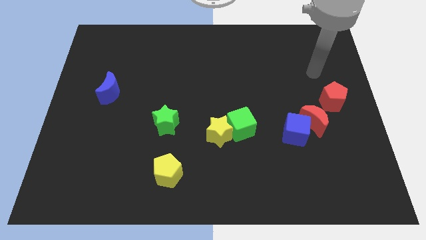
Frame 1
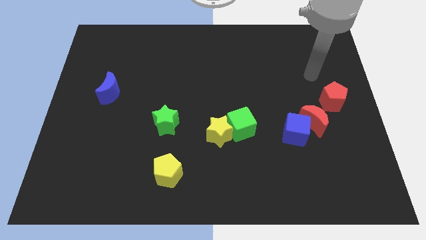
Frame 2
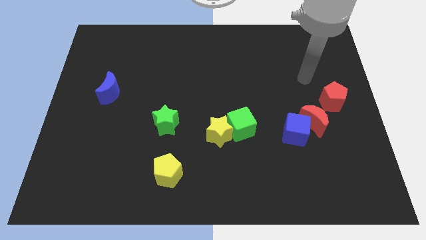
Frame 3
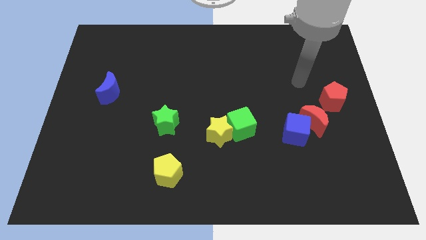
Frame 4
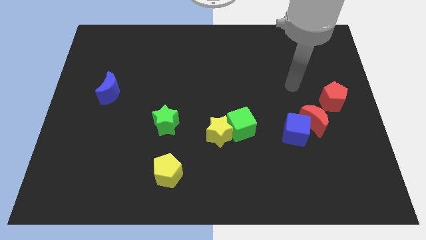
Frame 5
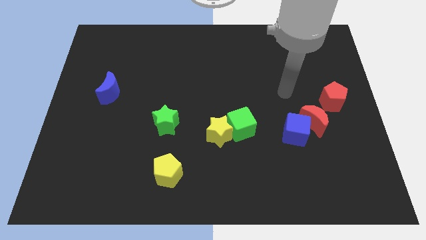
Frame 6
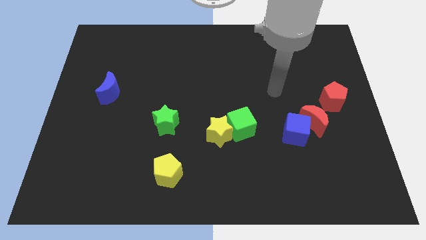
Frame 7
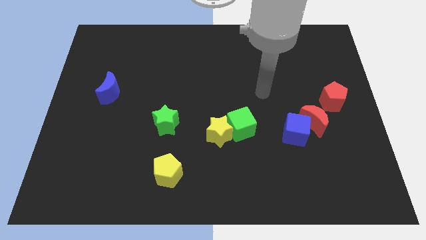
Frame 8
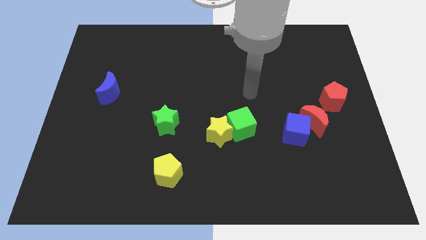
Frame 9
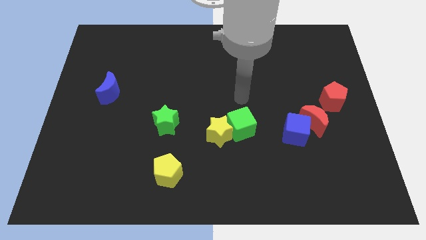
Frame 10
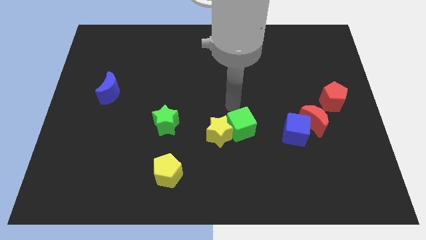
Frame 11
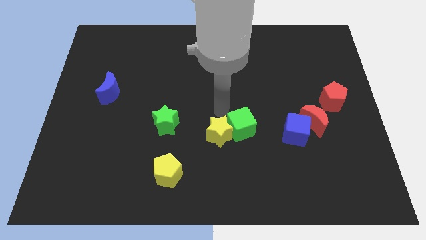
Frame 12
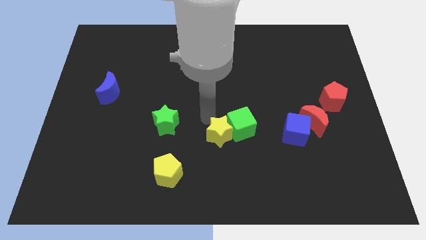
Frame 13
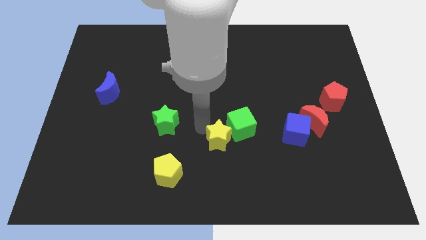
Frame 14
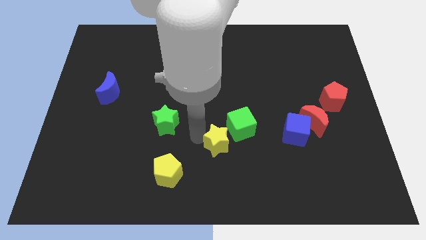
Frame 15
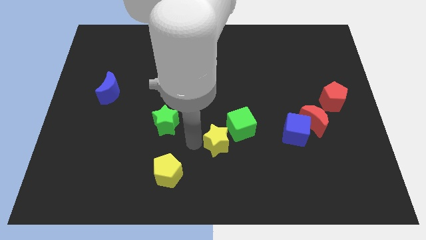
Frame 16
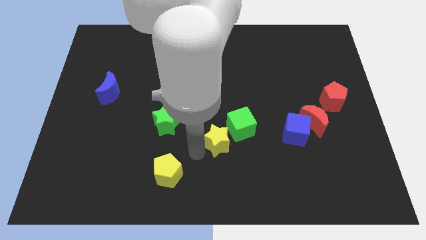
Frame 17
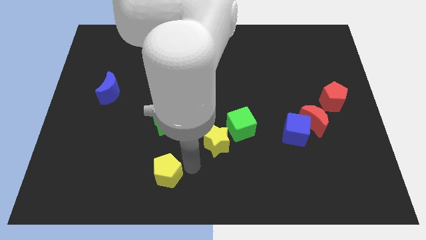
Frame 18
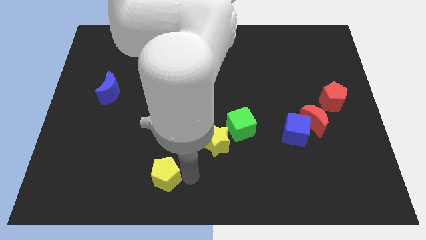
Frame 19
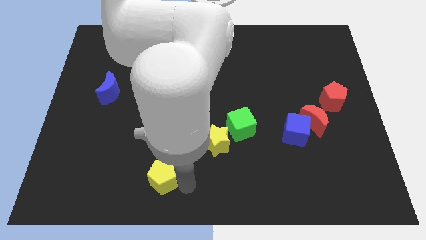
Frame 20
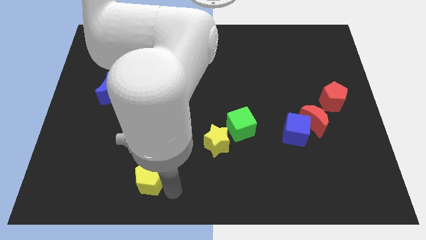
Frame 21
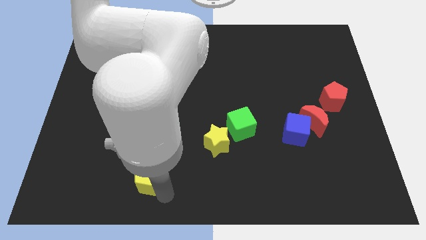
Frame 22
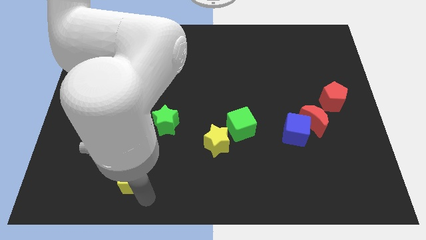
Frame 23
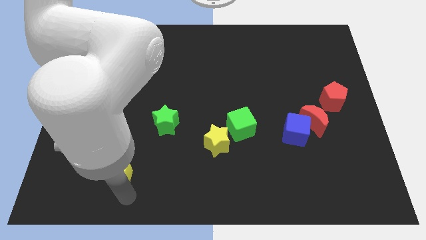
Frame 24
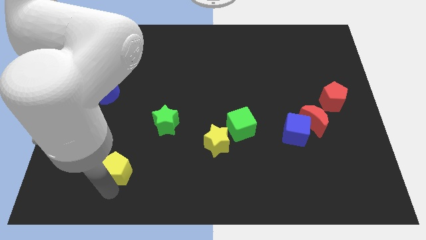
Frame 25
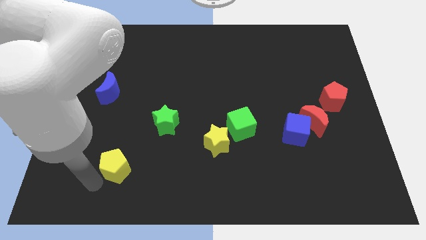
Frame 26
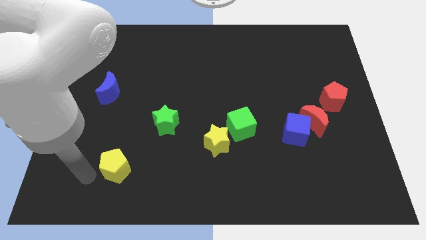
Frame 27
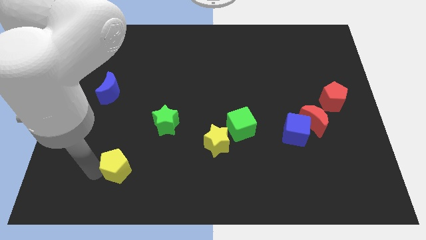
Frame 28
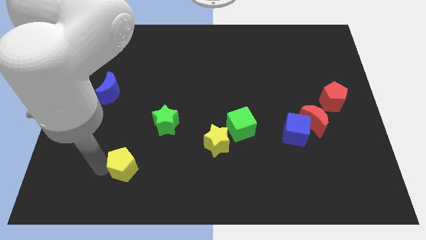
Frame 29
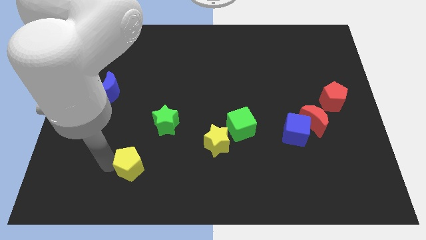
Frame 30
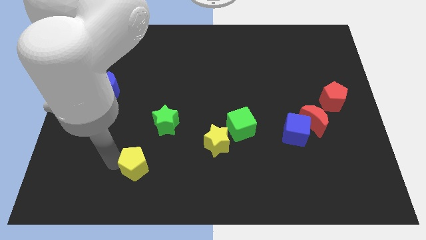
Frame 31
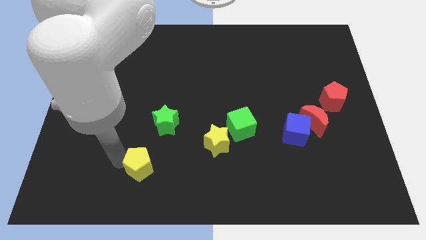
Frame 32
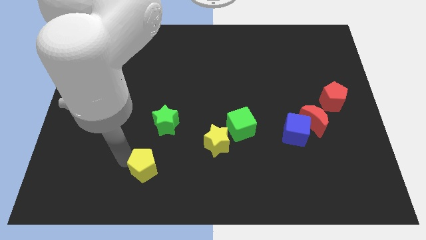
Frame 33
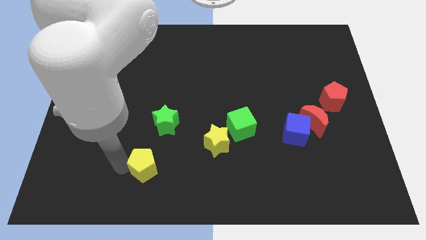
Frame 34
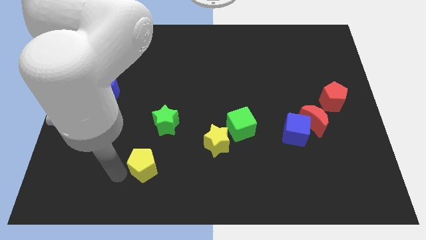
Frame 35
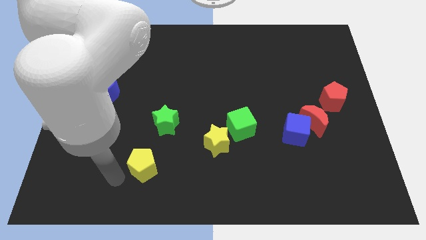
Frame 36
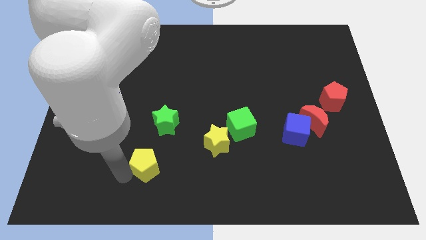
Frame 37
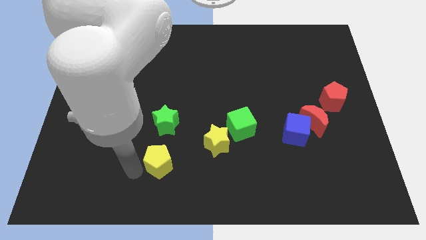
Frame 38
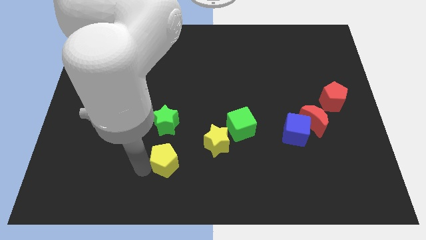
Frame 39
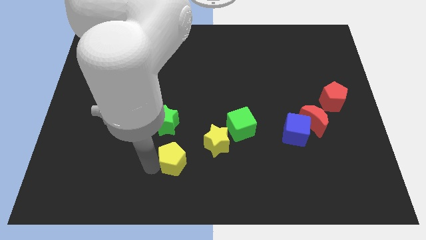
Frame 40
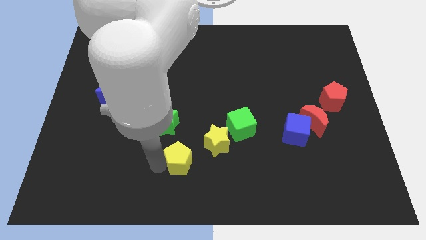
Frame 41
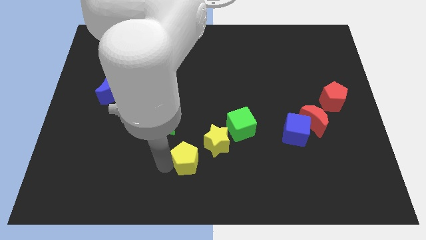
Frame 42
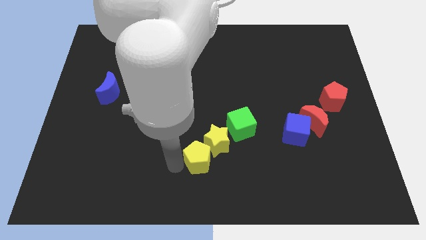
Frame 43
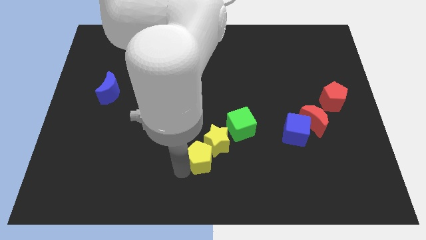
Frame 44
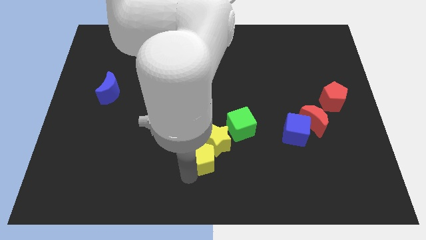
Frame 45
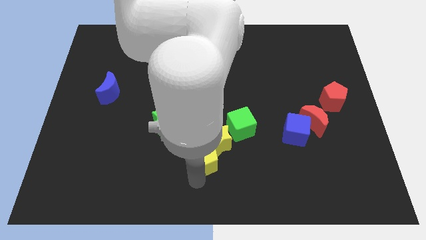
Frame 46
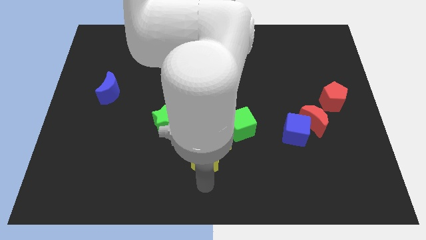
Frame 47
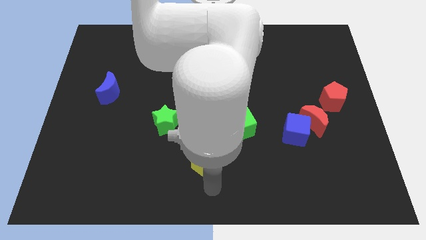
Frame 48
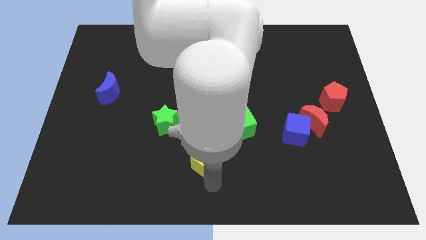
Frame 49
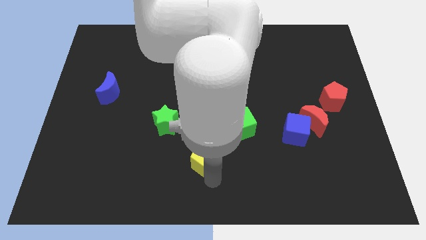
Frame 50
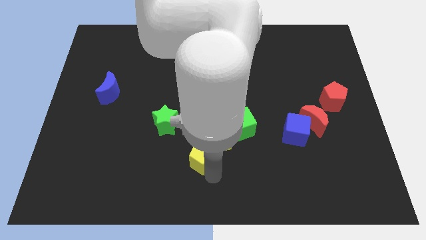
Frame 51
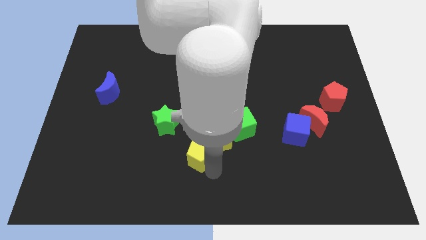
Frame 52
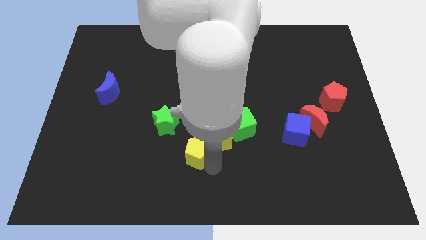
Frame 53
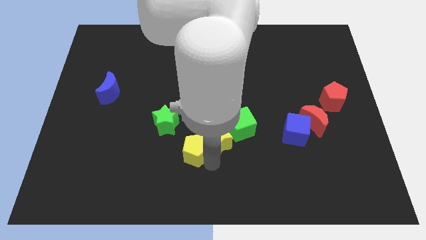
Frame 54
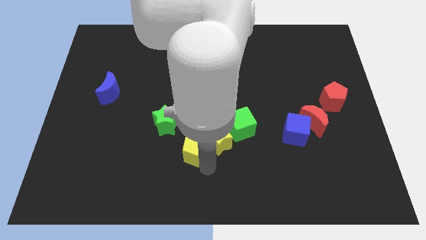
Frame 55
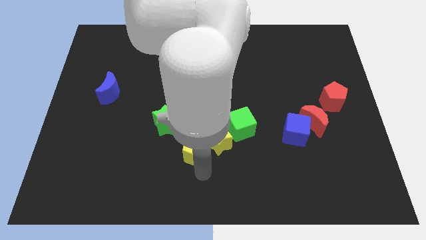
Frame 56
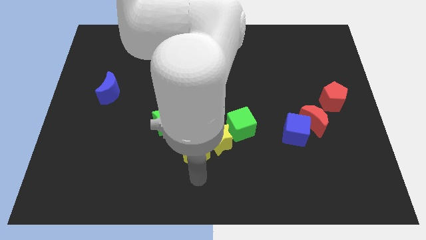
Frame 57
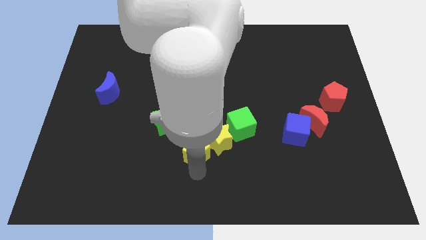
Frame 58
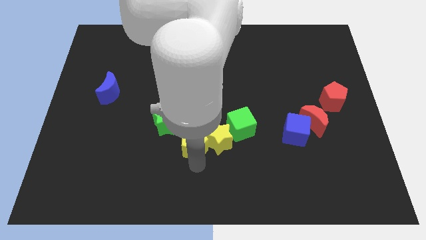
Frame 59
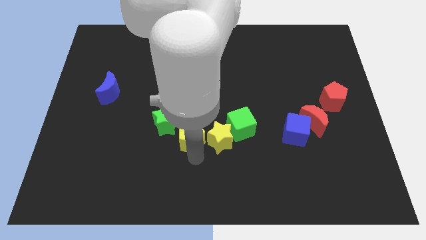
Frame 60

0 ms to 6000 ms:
slightly slide the yellow pentagon upwards

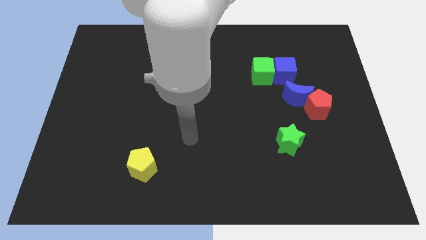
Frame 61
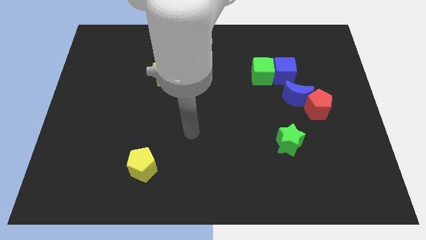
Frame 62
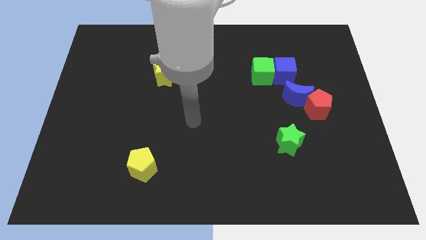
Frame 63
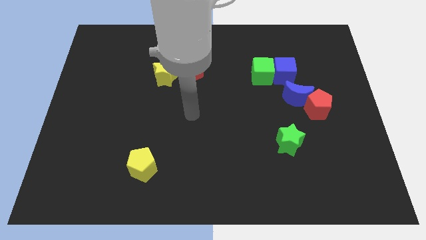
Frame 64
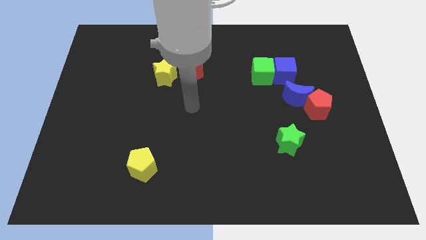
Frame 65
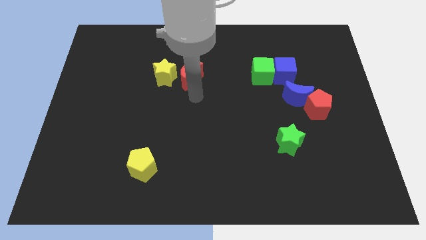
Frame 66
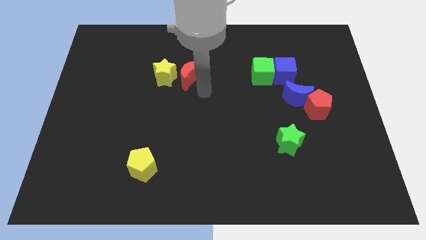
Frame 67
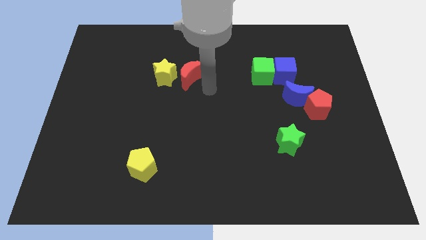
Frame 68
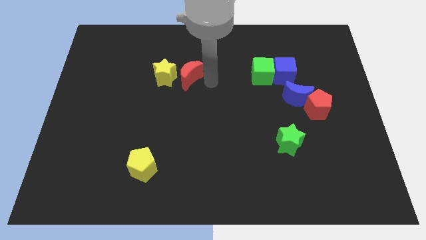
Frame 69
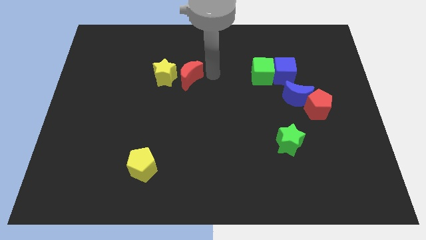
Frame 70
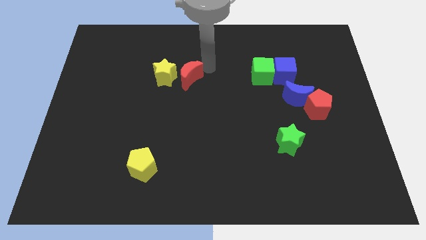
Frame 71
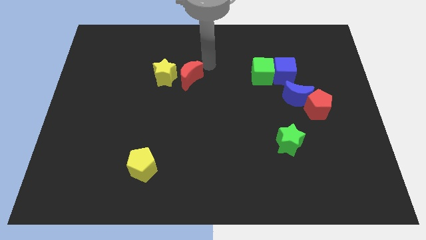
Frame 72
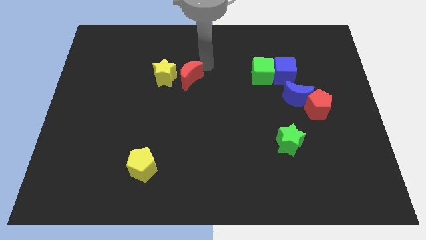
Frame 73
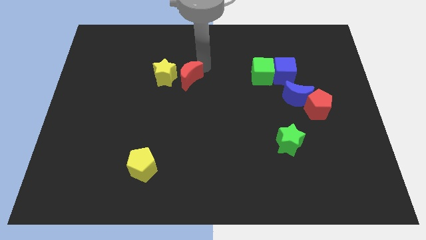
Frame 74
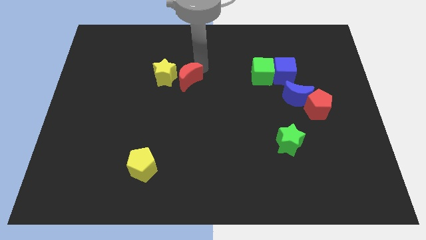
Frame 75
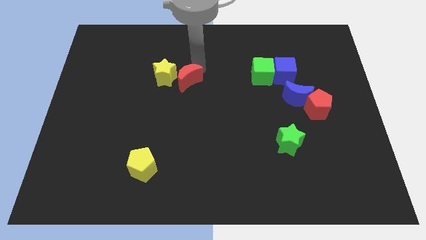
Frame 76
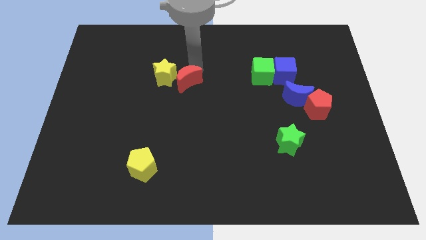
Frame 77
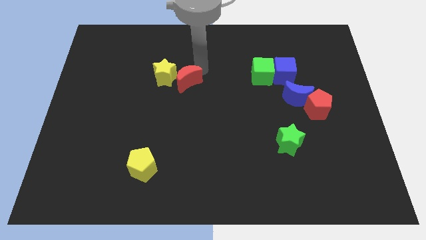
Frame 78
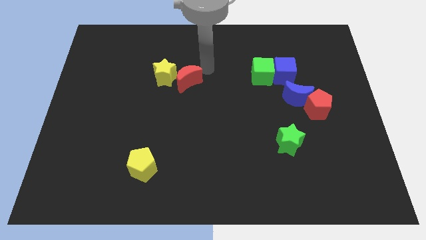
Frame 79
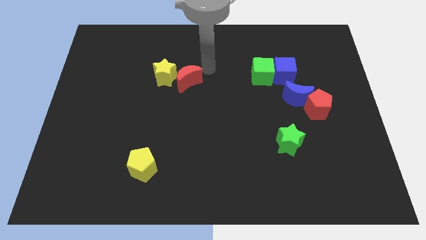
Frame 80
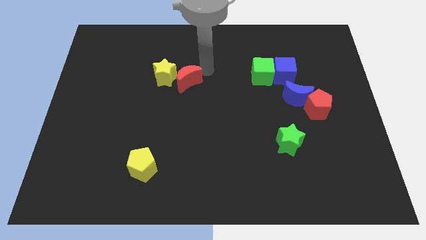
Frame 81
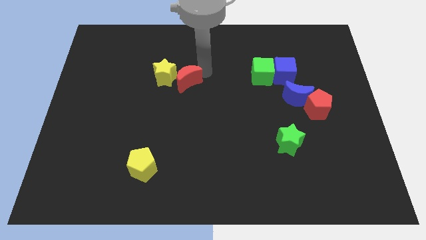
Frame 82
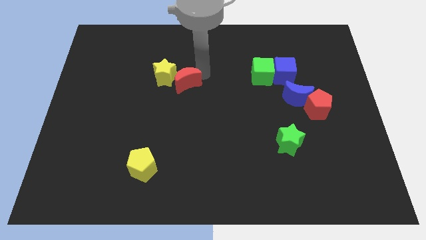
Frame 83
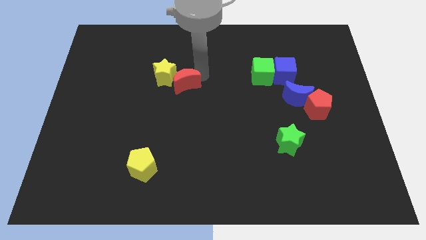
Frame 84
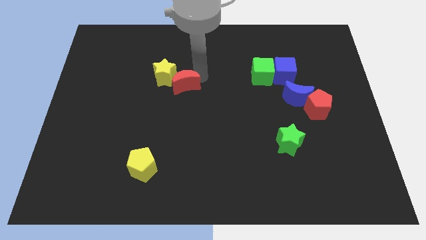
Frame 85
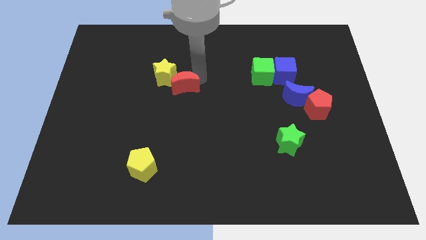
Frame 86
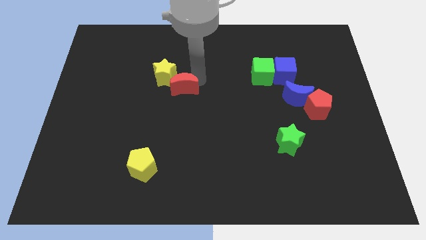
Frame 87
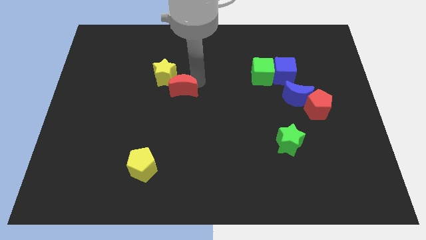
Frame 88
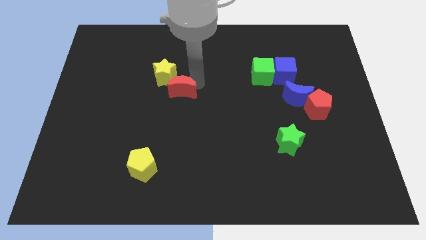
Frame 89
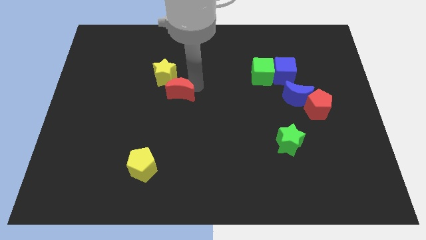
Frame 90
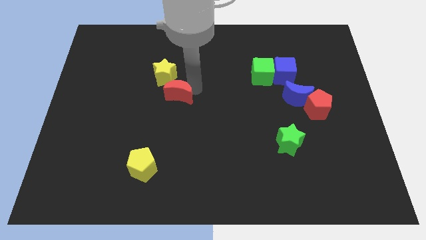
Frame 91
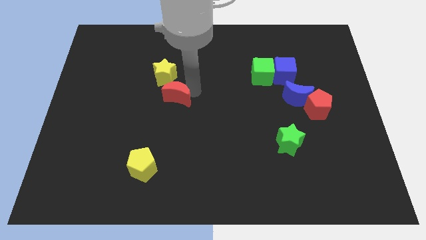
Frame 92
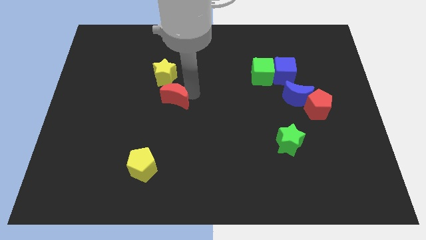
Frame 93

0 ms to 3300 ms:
push the red moon downwards and to the left diagonally a little bit
